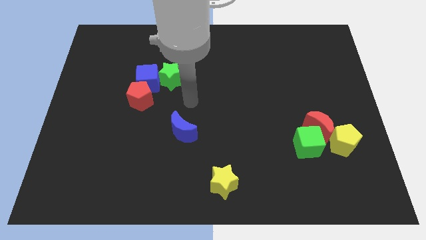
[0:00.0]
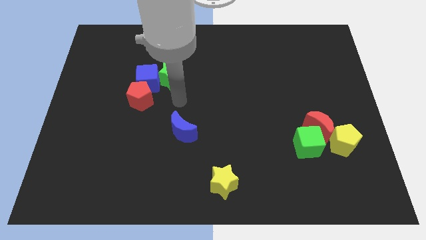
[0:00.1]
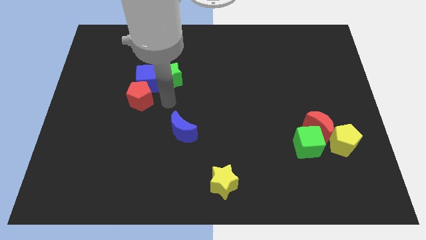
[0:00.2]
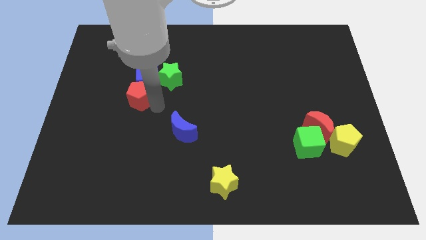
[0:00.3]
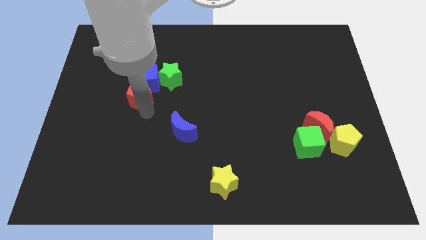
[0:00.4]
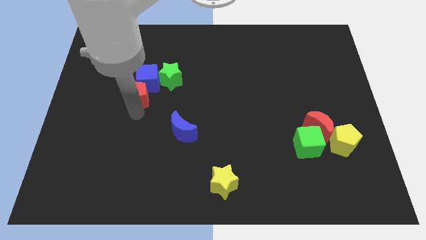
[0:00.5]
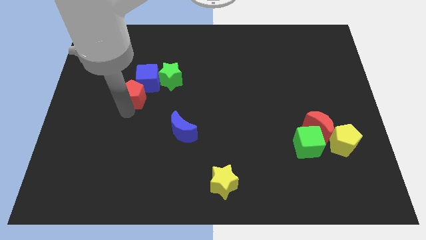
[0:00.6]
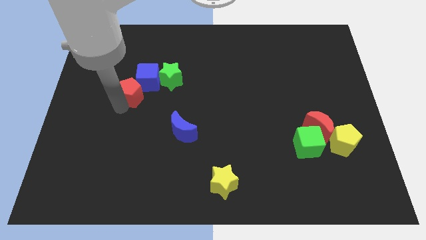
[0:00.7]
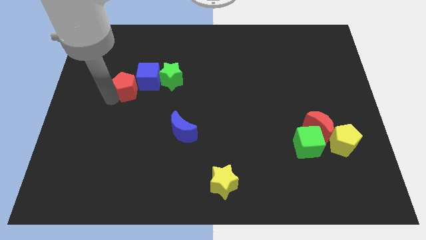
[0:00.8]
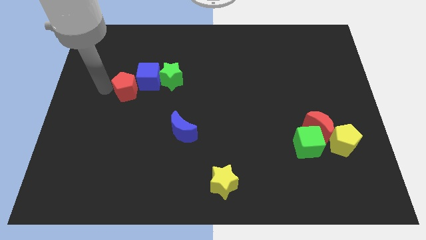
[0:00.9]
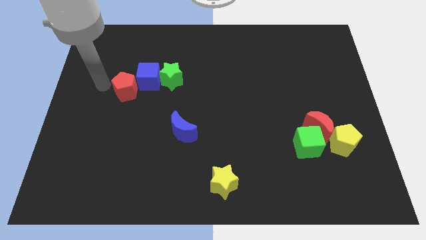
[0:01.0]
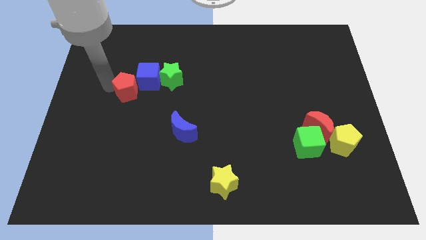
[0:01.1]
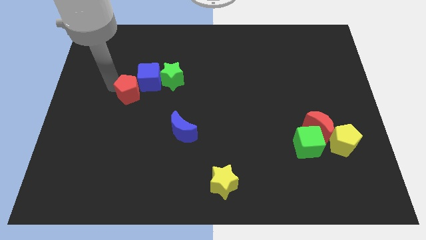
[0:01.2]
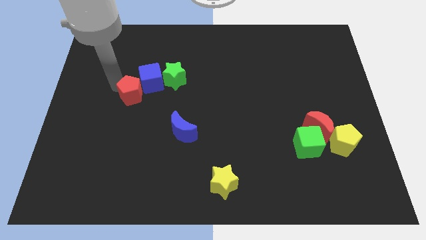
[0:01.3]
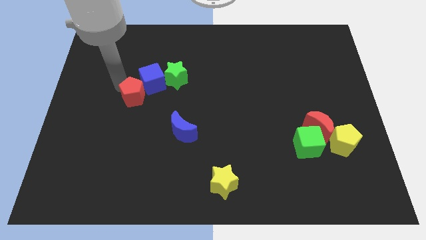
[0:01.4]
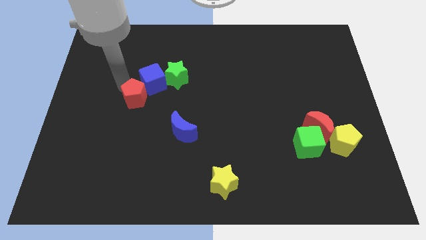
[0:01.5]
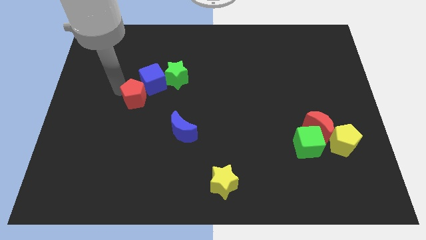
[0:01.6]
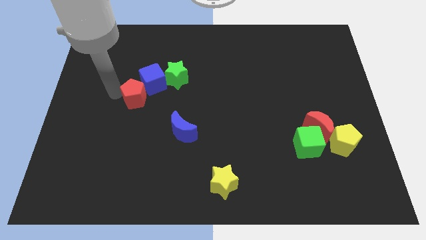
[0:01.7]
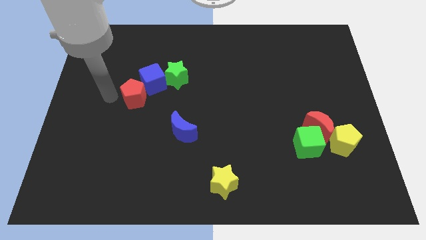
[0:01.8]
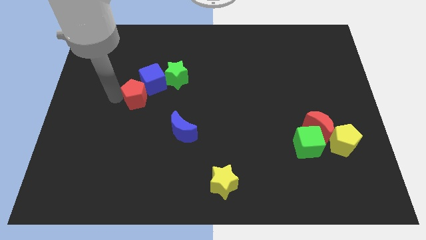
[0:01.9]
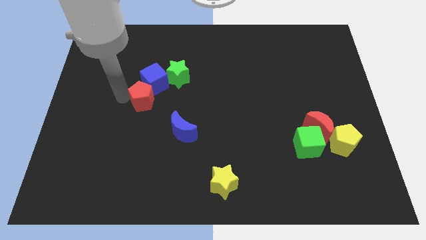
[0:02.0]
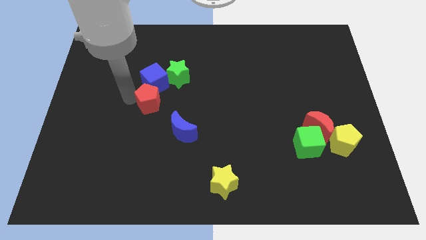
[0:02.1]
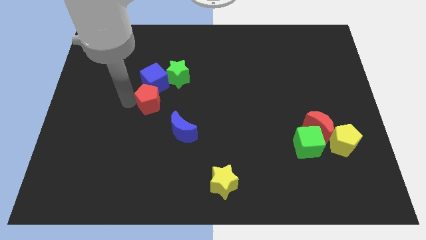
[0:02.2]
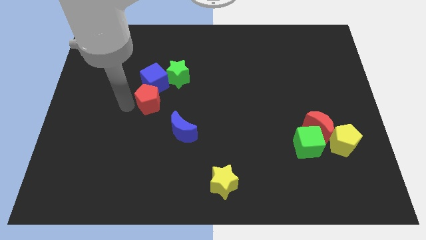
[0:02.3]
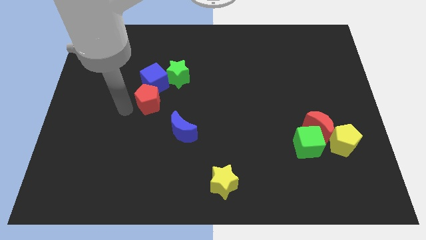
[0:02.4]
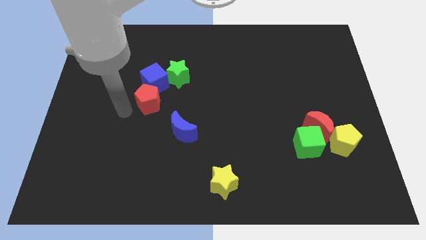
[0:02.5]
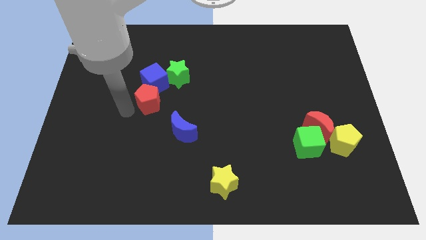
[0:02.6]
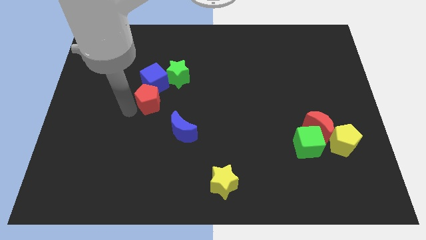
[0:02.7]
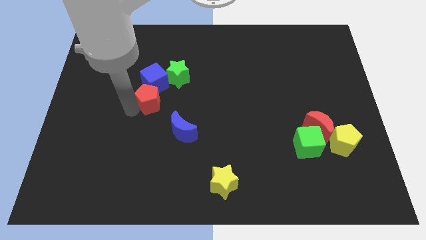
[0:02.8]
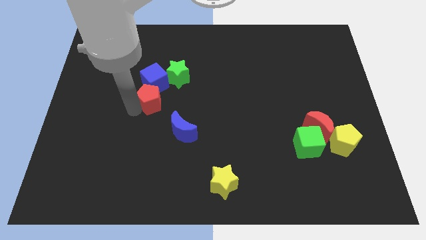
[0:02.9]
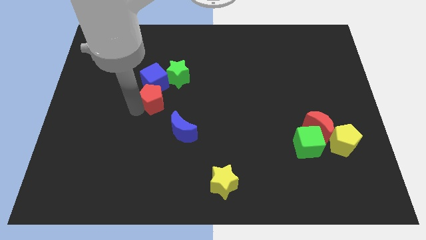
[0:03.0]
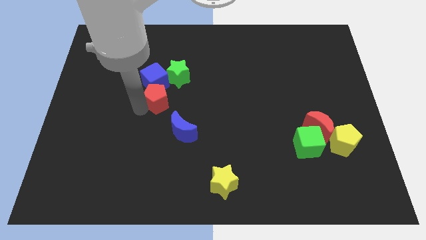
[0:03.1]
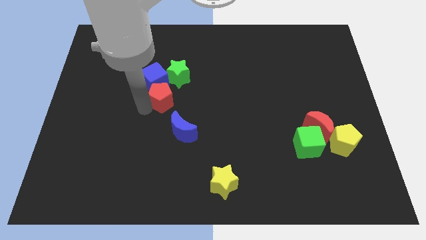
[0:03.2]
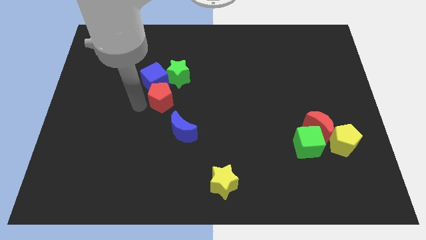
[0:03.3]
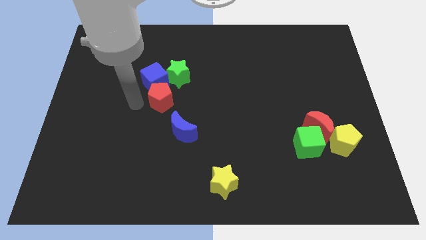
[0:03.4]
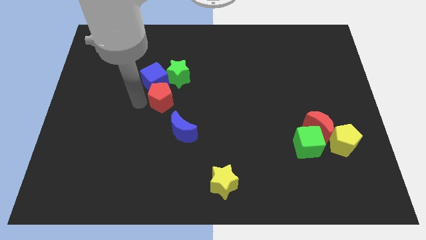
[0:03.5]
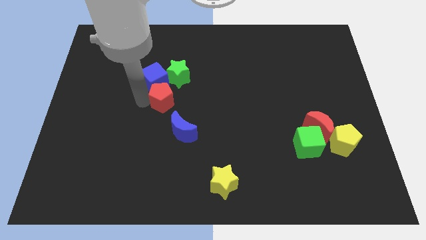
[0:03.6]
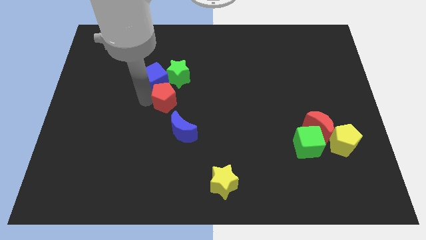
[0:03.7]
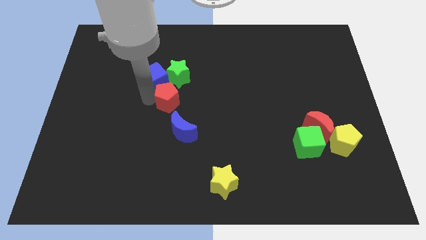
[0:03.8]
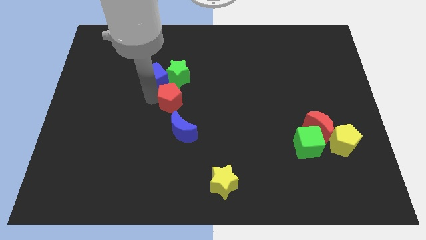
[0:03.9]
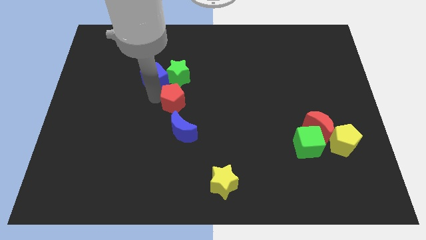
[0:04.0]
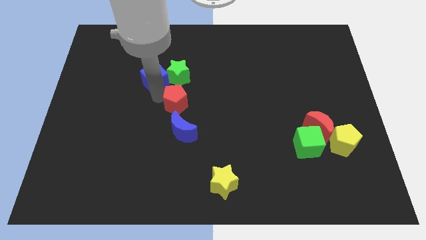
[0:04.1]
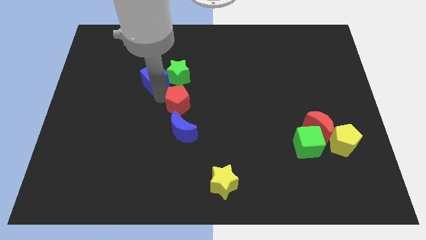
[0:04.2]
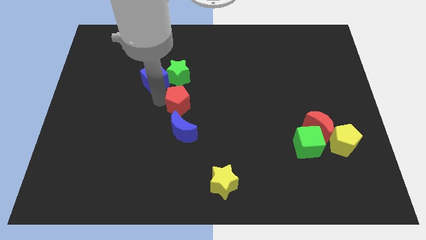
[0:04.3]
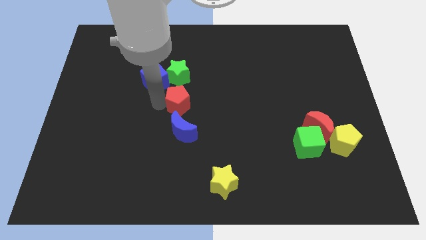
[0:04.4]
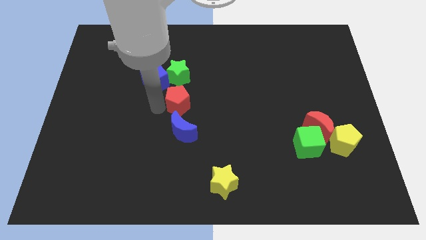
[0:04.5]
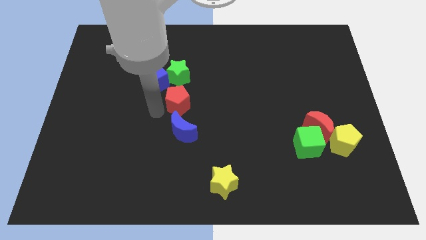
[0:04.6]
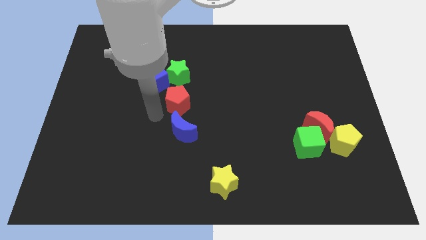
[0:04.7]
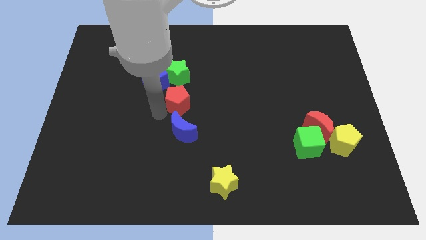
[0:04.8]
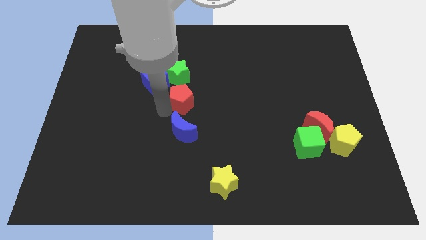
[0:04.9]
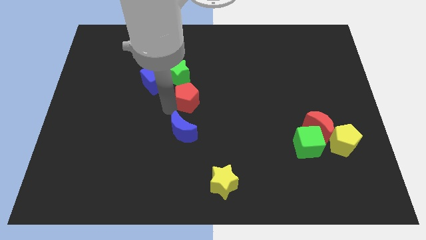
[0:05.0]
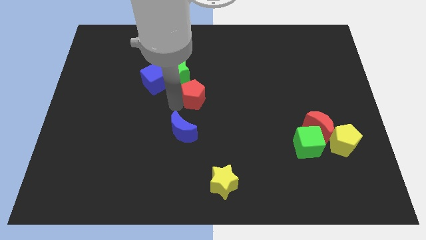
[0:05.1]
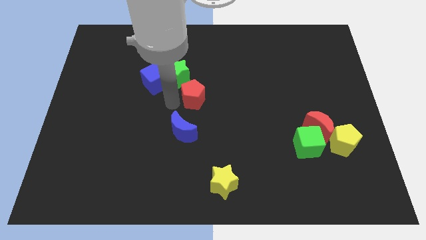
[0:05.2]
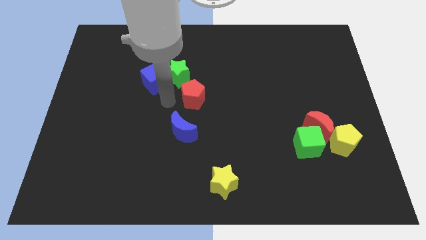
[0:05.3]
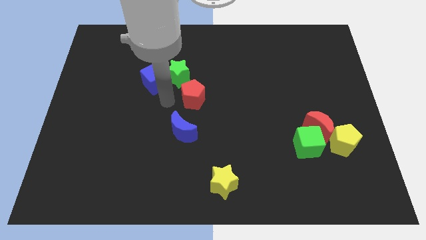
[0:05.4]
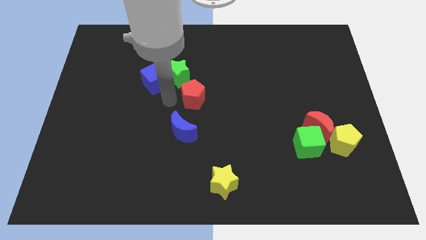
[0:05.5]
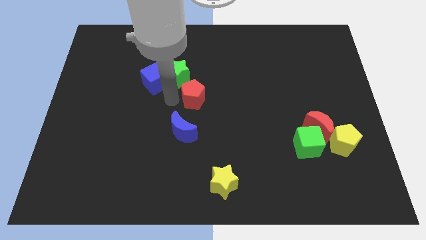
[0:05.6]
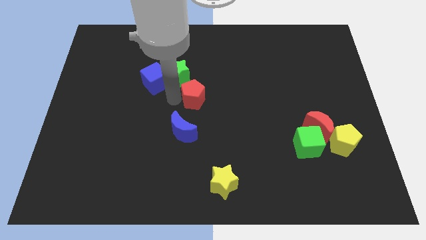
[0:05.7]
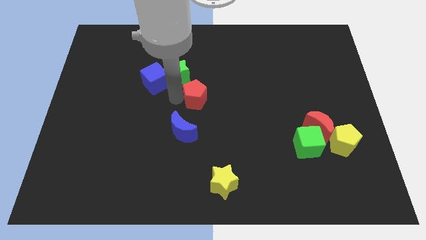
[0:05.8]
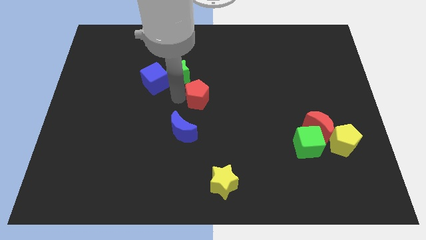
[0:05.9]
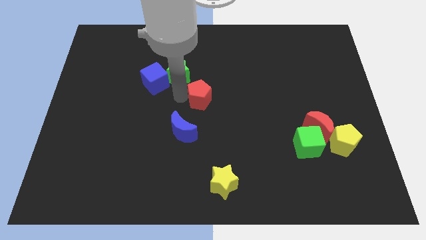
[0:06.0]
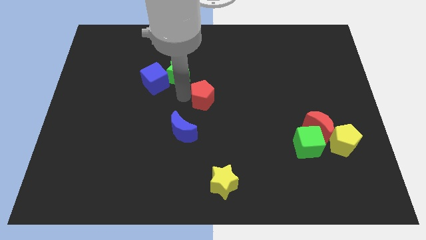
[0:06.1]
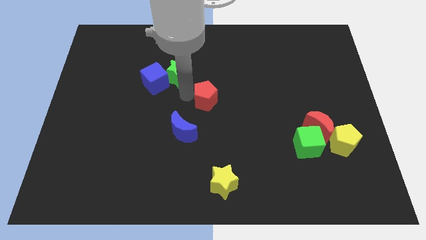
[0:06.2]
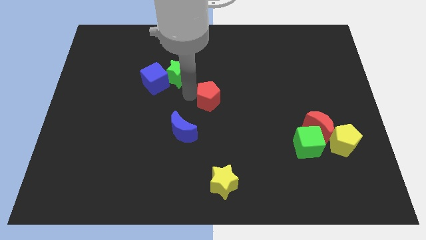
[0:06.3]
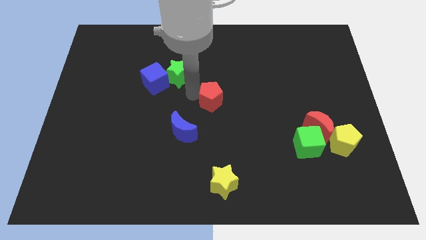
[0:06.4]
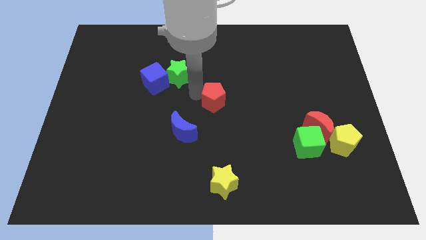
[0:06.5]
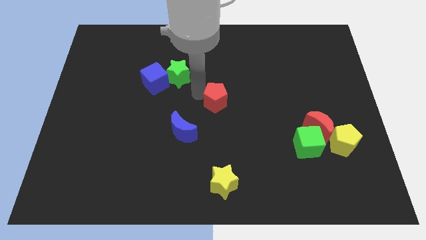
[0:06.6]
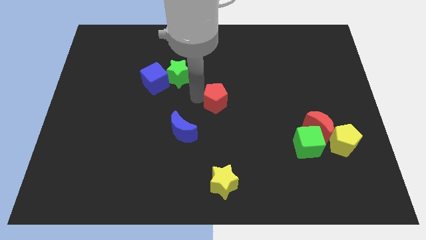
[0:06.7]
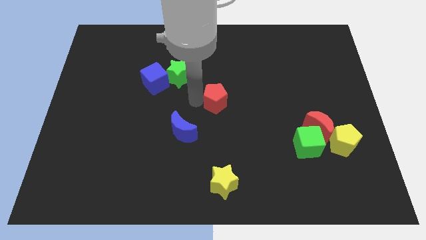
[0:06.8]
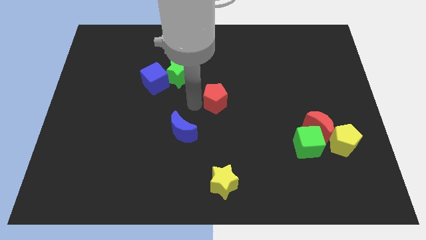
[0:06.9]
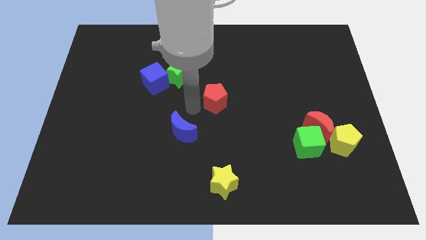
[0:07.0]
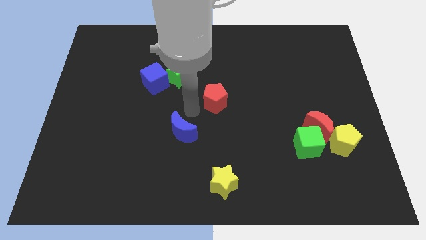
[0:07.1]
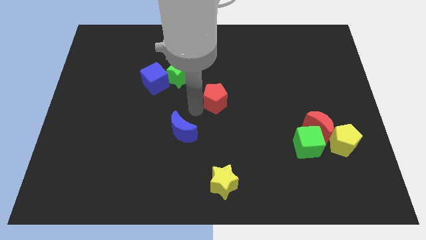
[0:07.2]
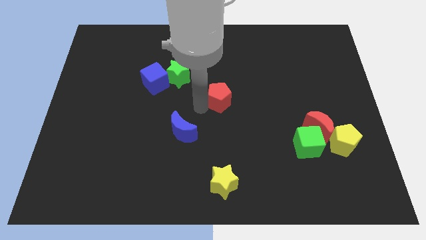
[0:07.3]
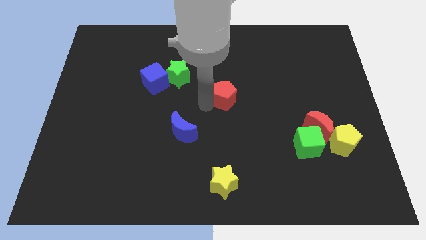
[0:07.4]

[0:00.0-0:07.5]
push the red pentagon to the right
